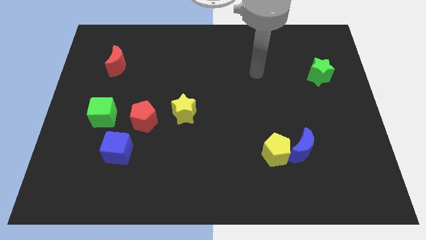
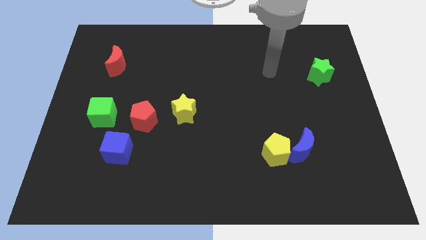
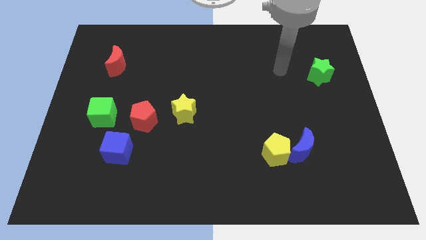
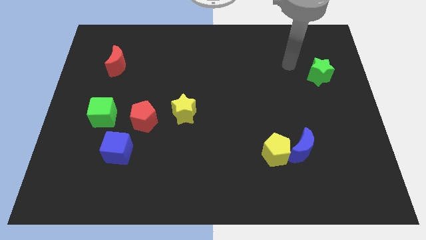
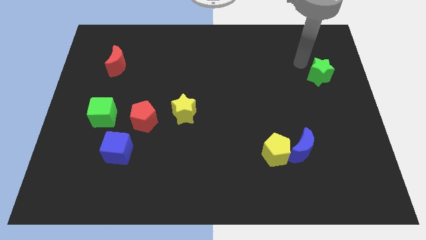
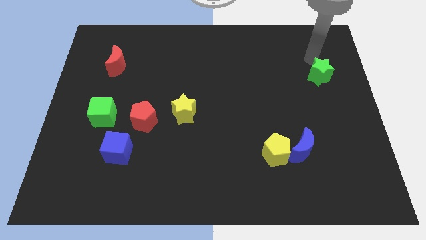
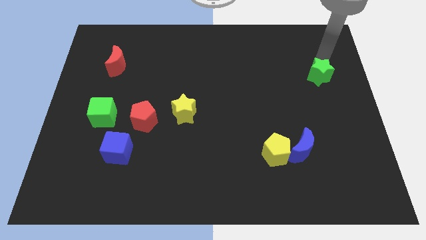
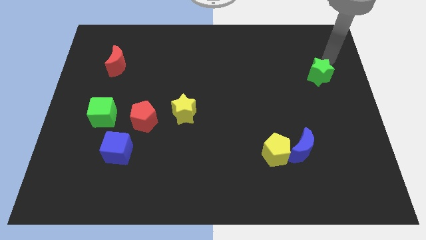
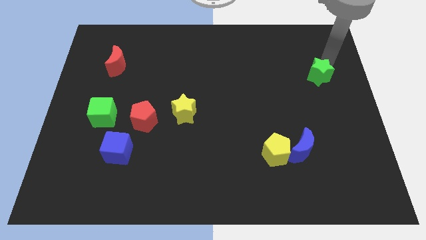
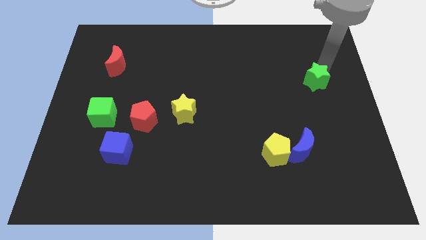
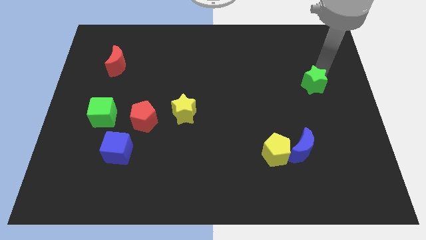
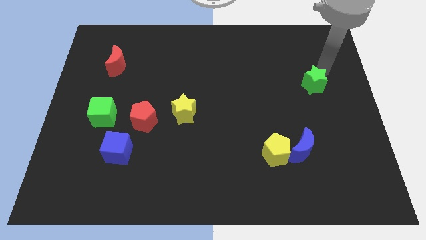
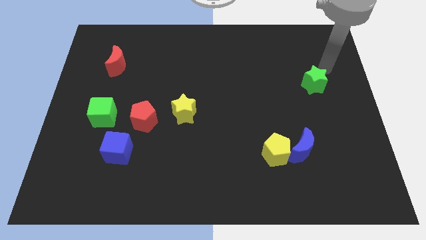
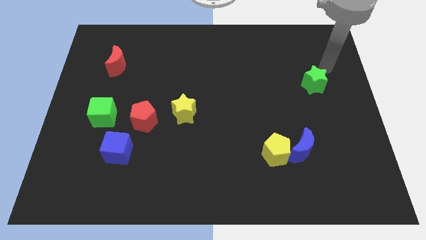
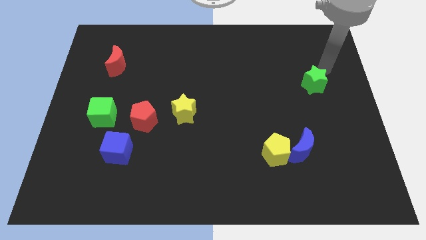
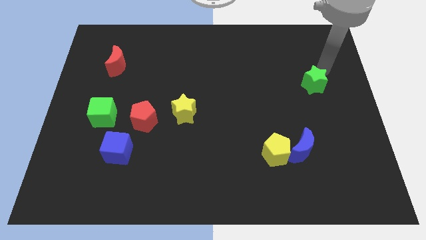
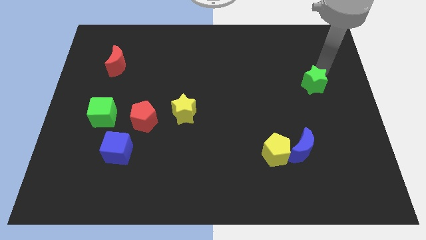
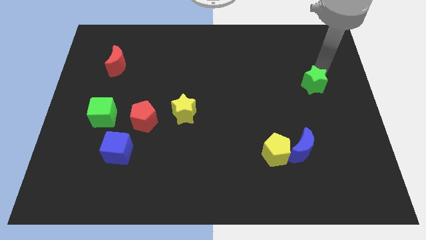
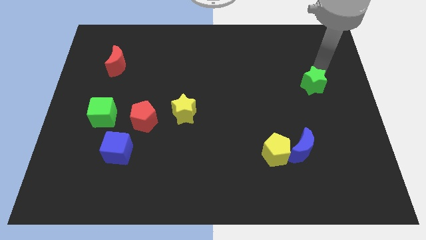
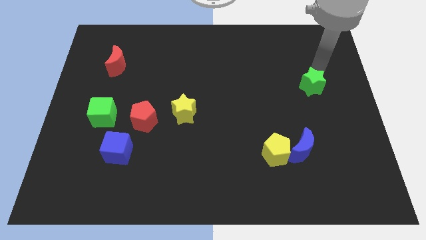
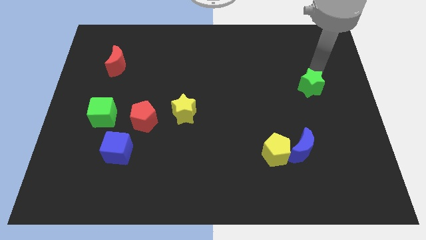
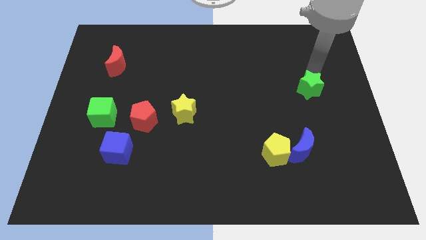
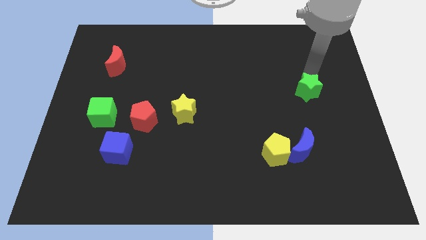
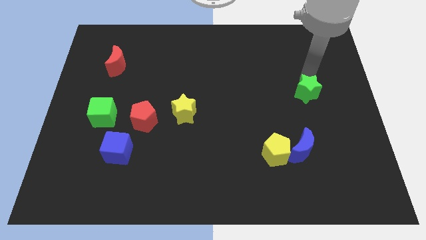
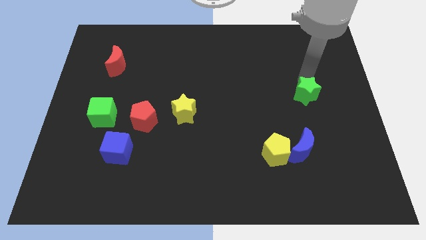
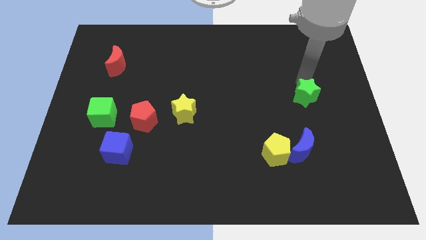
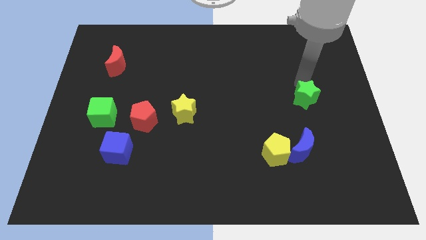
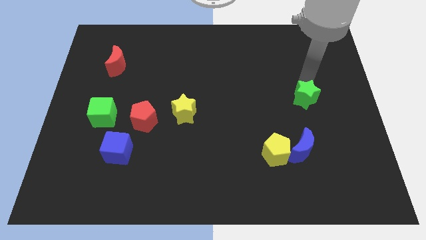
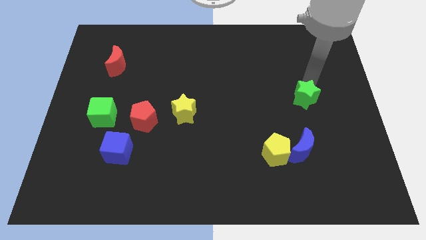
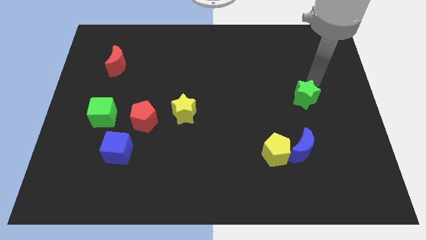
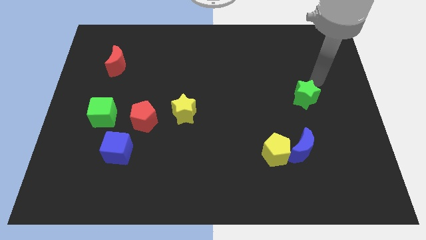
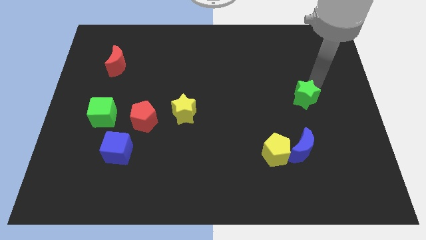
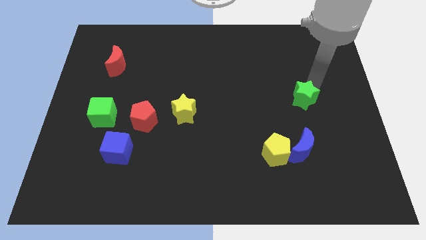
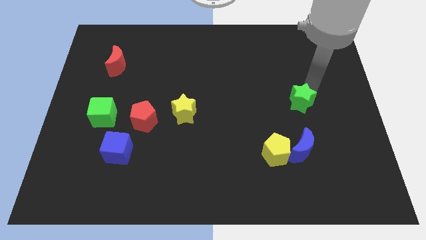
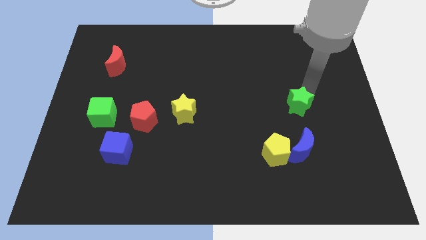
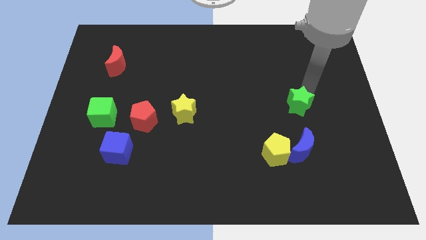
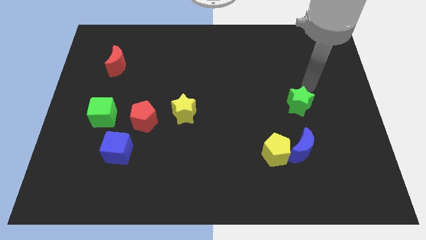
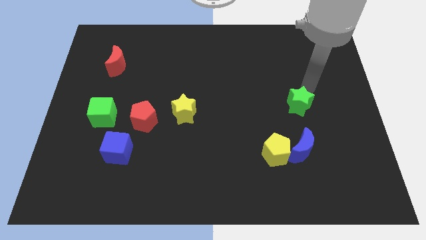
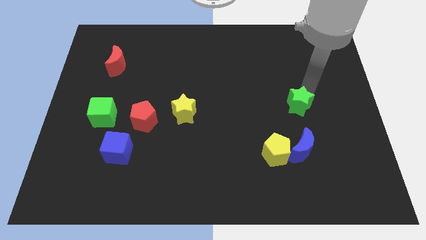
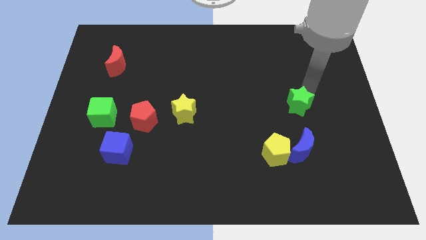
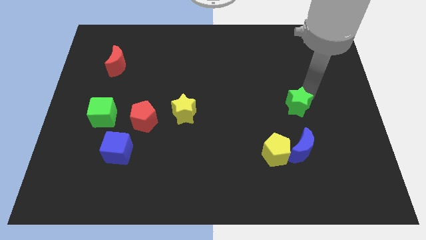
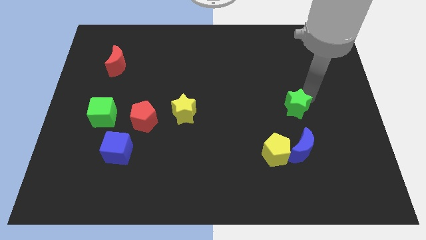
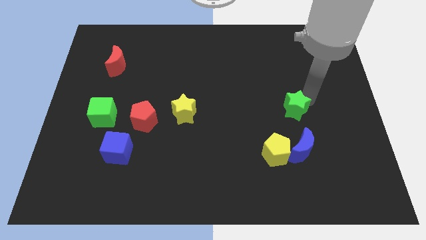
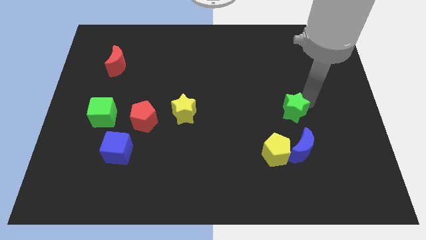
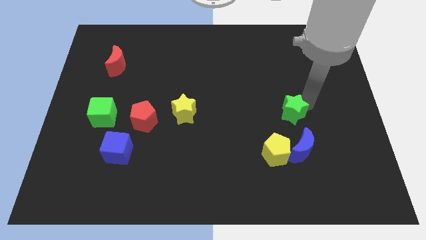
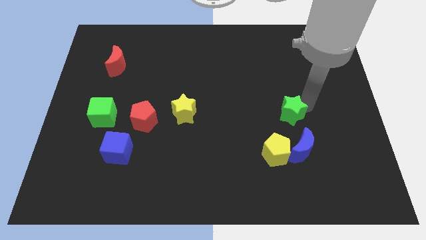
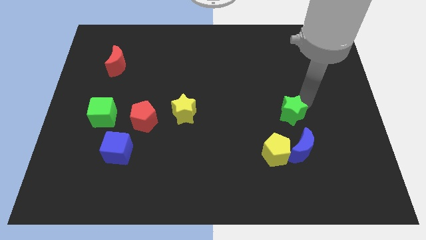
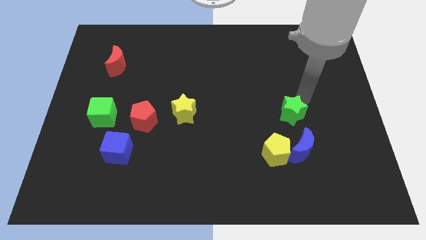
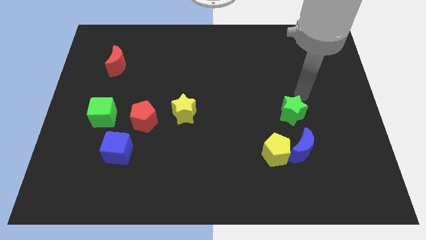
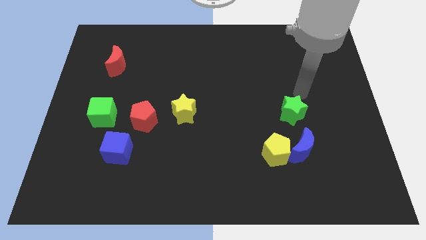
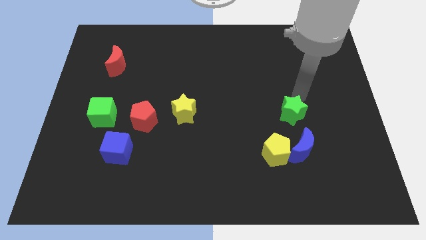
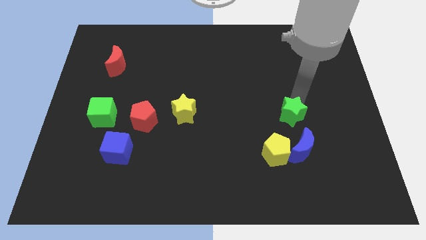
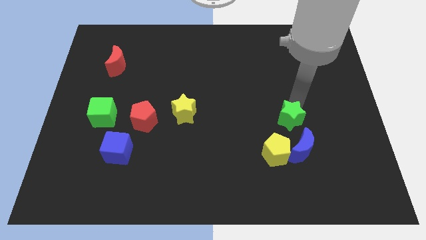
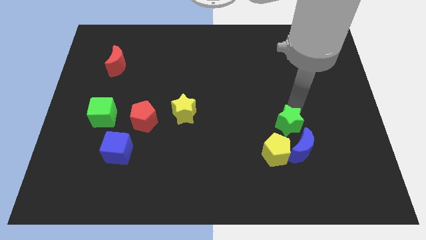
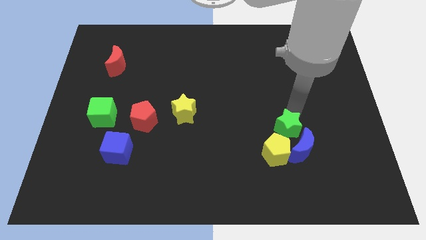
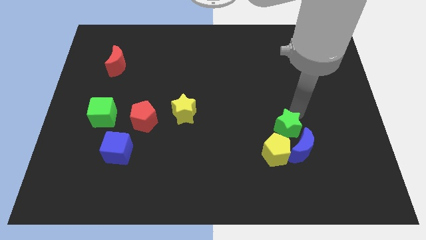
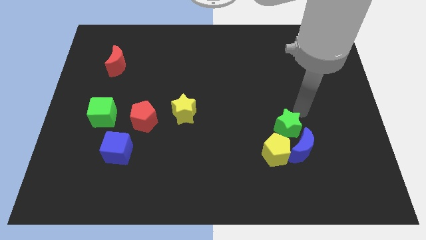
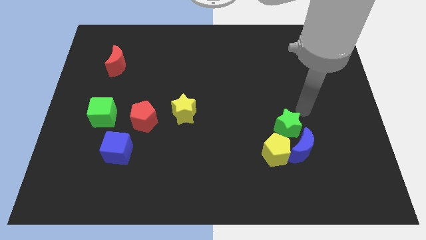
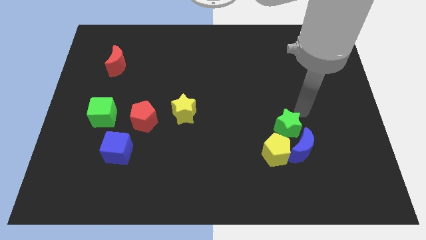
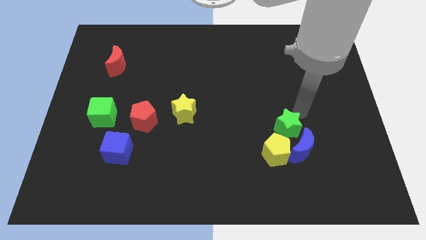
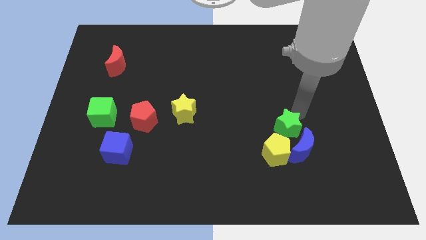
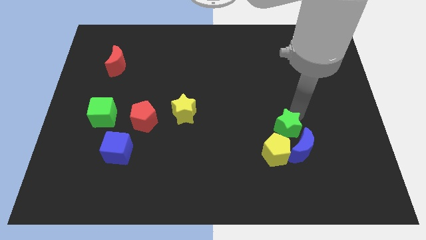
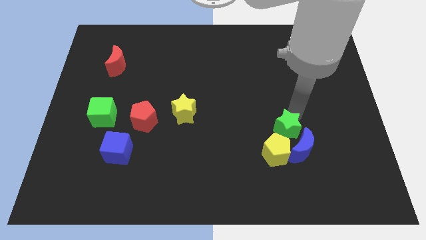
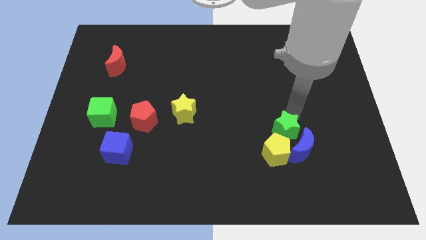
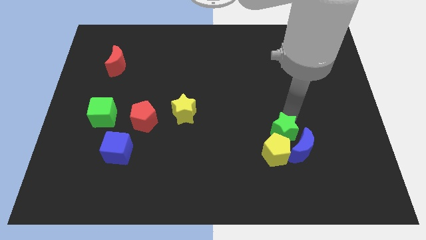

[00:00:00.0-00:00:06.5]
push the green star close to the yellow pentagon
